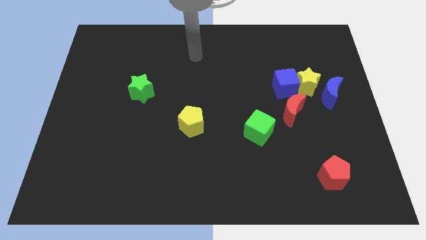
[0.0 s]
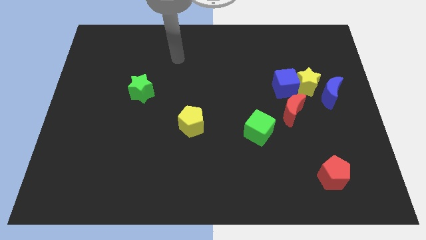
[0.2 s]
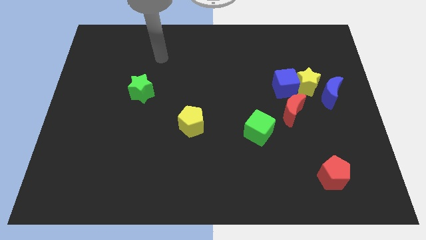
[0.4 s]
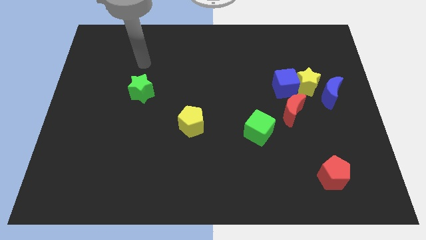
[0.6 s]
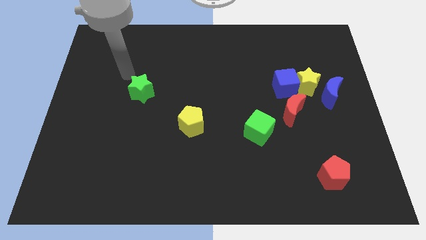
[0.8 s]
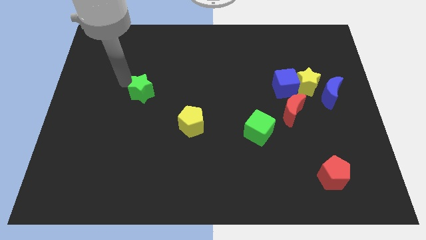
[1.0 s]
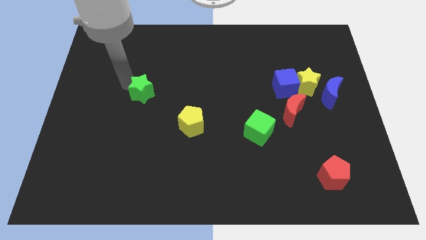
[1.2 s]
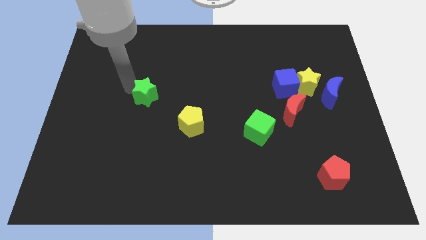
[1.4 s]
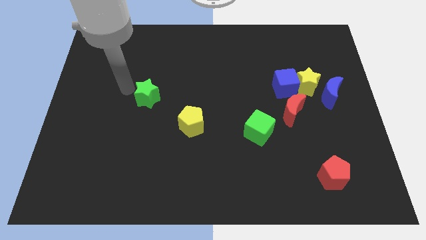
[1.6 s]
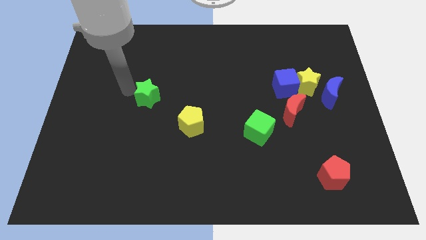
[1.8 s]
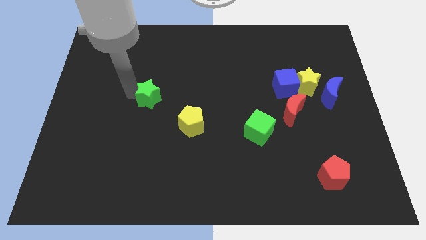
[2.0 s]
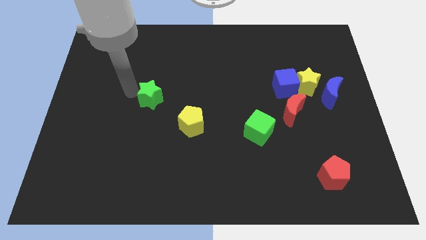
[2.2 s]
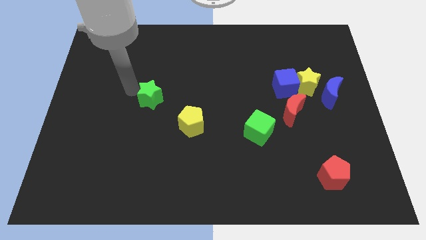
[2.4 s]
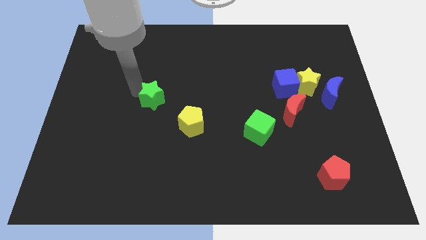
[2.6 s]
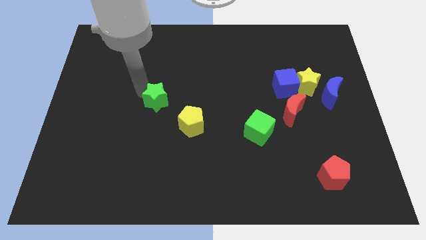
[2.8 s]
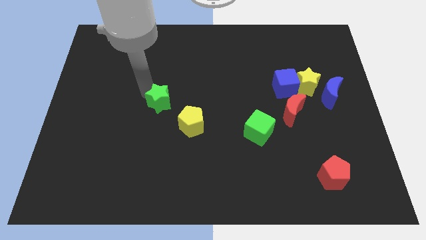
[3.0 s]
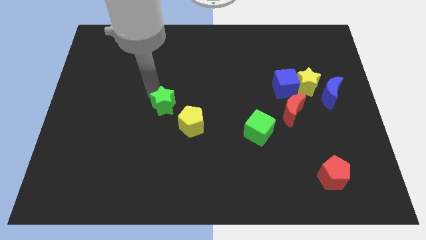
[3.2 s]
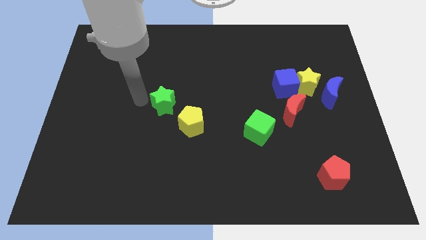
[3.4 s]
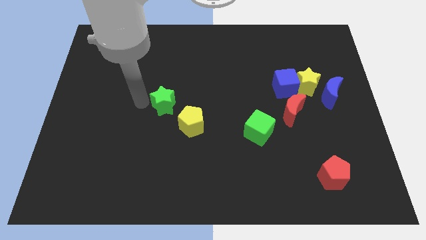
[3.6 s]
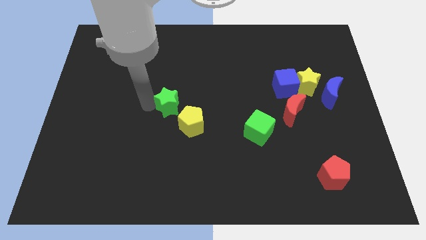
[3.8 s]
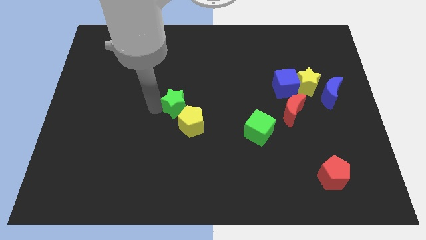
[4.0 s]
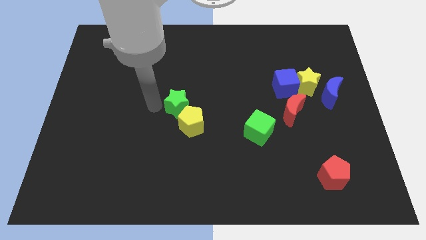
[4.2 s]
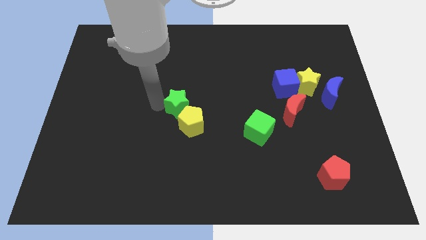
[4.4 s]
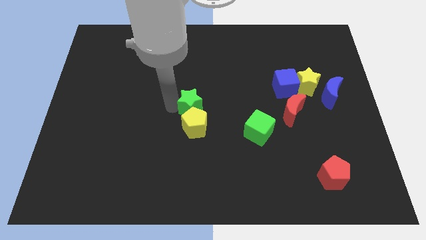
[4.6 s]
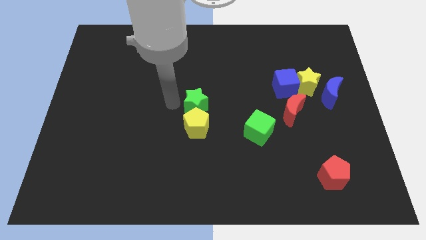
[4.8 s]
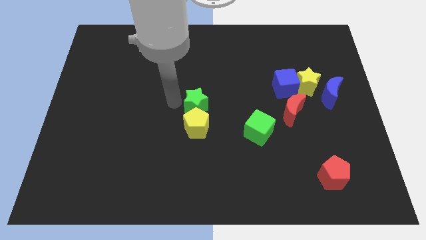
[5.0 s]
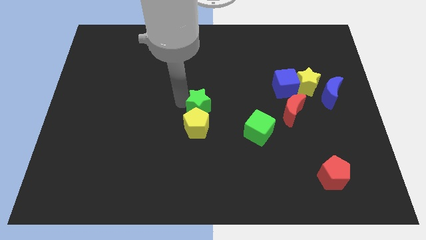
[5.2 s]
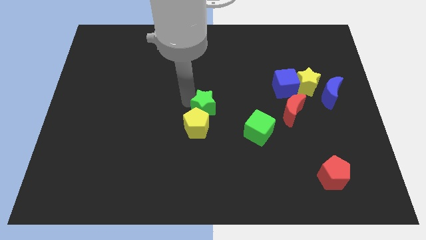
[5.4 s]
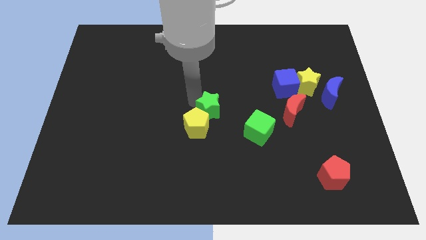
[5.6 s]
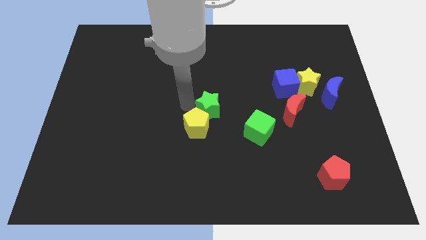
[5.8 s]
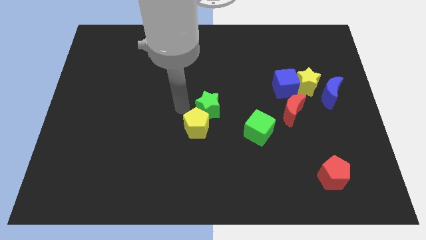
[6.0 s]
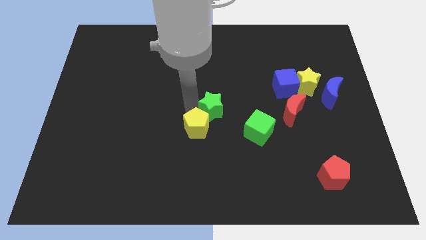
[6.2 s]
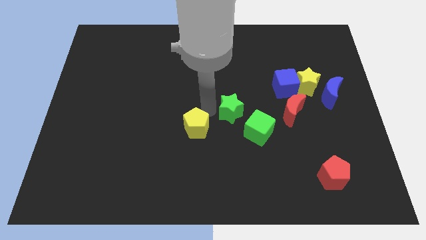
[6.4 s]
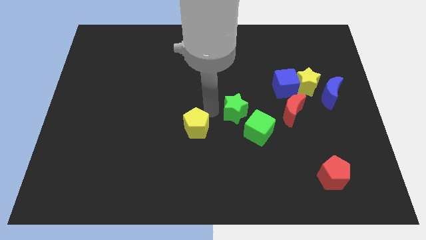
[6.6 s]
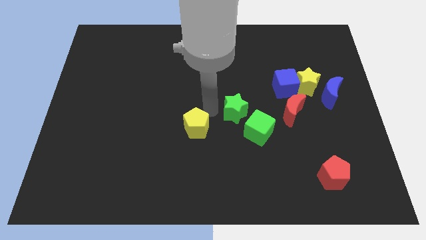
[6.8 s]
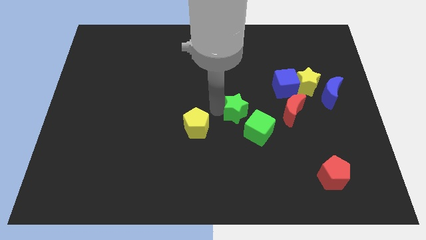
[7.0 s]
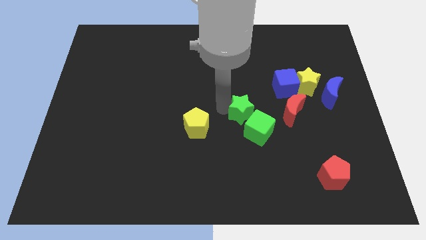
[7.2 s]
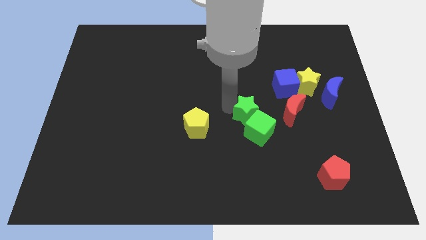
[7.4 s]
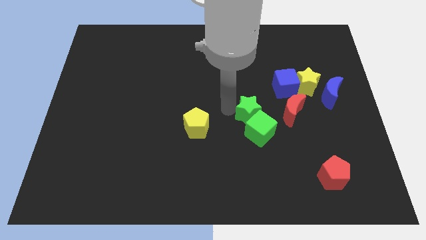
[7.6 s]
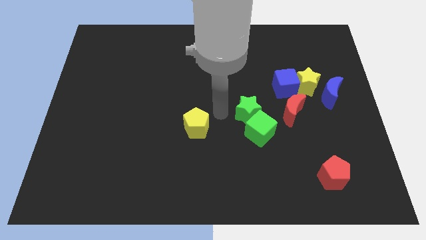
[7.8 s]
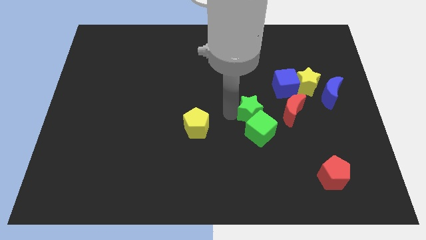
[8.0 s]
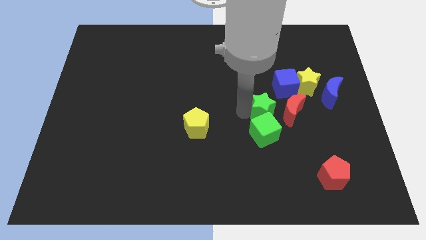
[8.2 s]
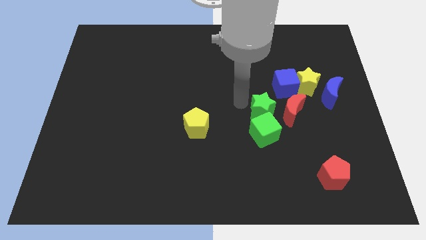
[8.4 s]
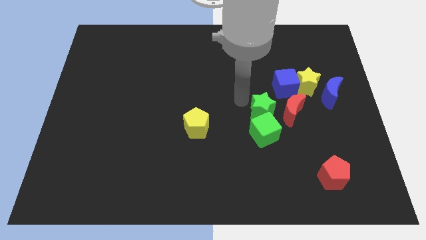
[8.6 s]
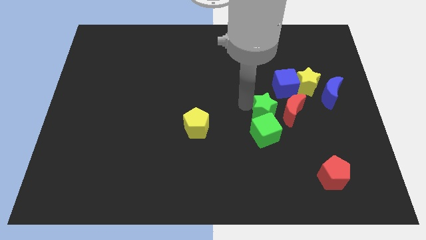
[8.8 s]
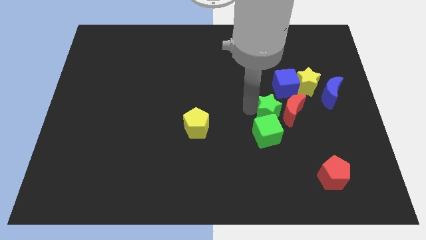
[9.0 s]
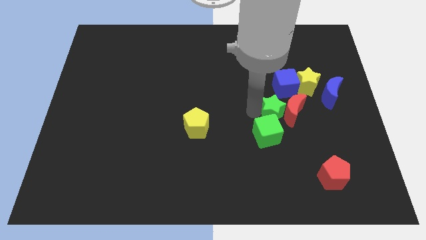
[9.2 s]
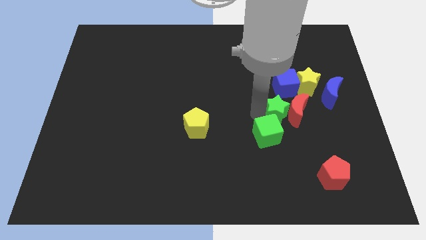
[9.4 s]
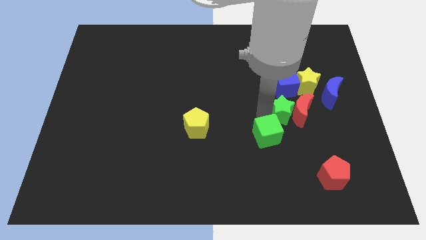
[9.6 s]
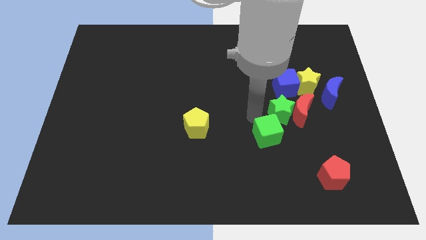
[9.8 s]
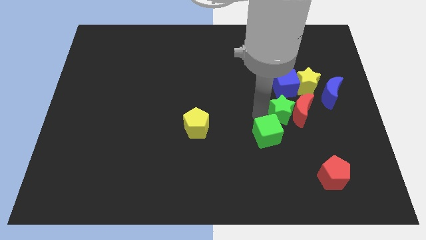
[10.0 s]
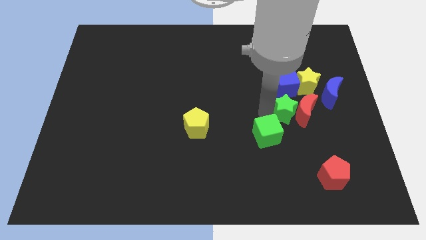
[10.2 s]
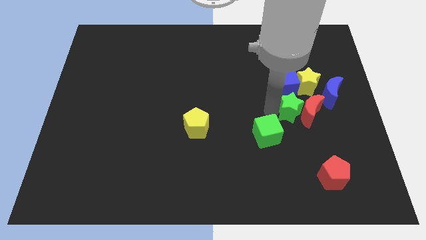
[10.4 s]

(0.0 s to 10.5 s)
put the green star to the bottom left side of the blue moon
